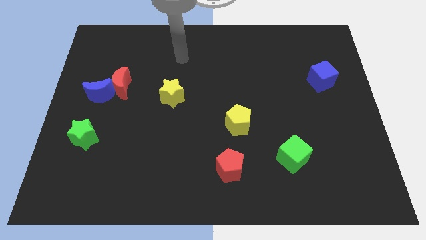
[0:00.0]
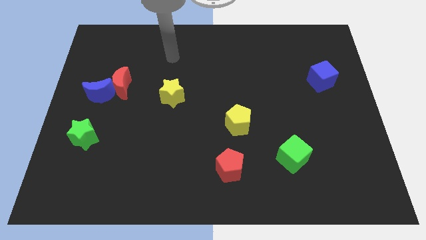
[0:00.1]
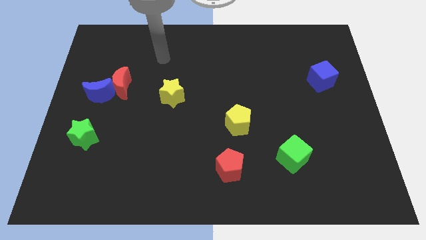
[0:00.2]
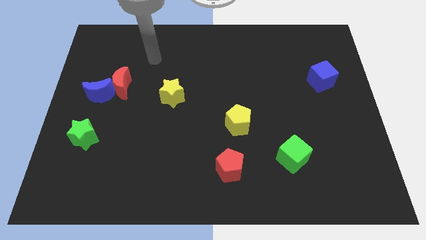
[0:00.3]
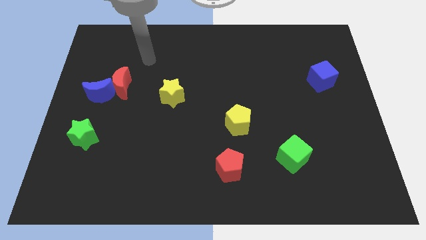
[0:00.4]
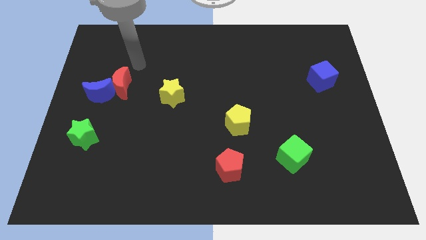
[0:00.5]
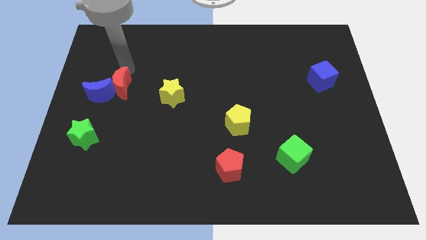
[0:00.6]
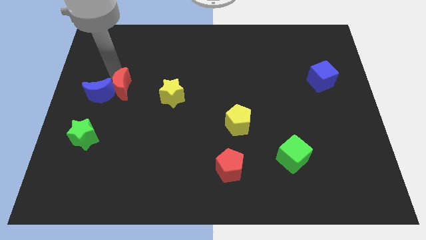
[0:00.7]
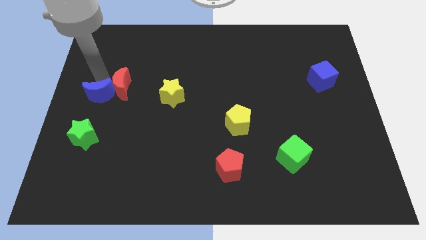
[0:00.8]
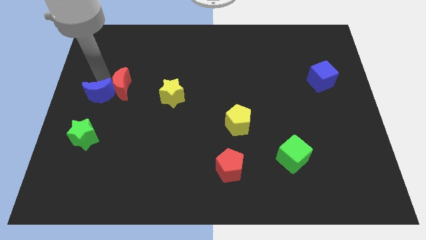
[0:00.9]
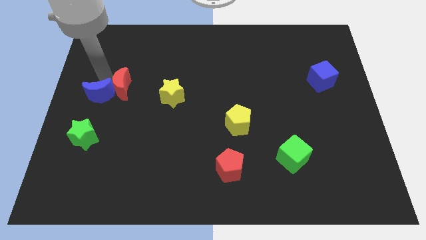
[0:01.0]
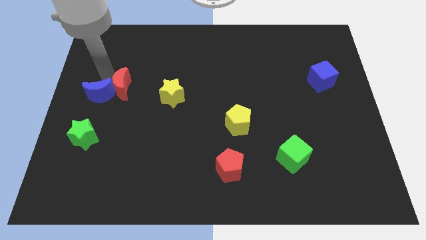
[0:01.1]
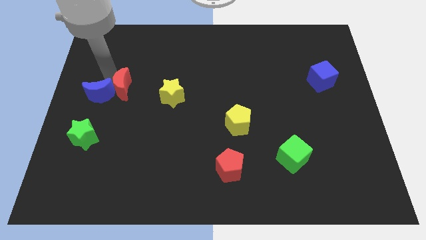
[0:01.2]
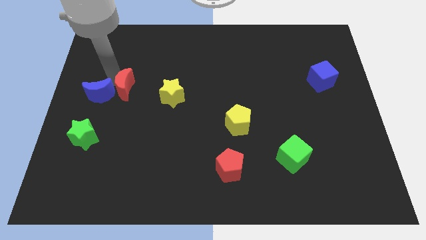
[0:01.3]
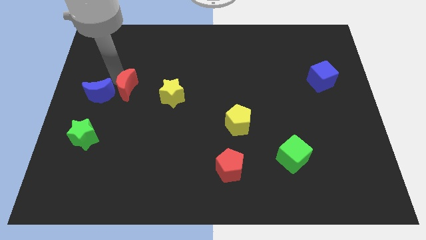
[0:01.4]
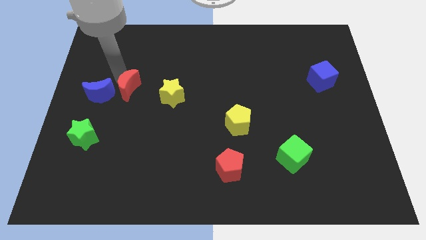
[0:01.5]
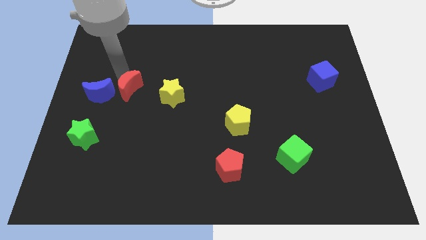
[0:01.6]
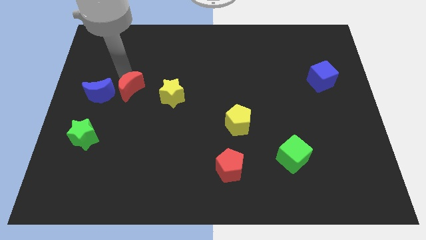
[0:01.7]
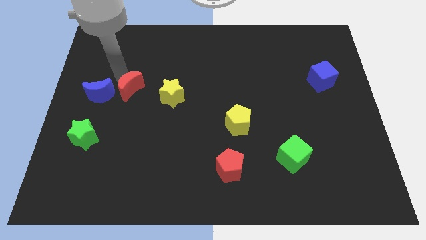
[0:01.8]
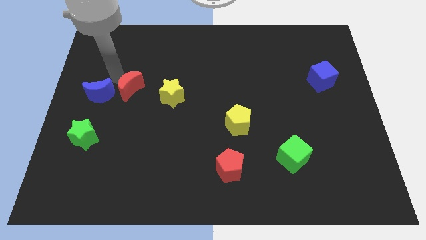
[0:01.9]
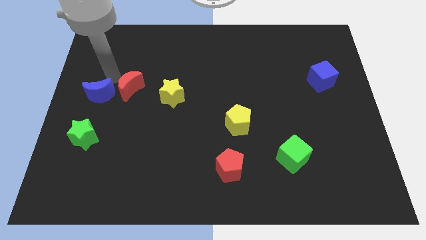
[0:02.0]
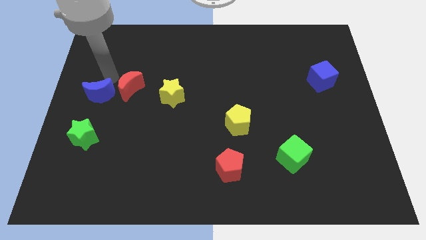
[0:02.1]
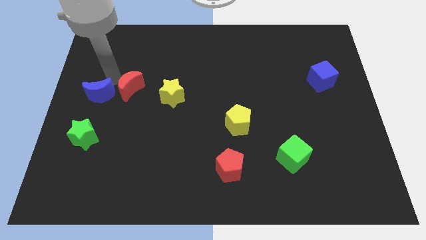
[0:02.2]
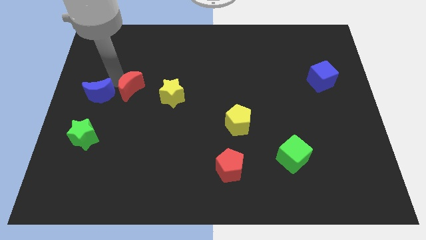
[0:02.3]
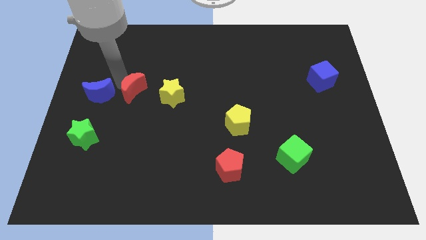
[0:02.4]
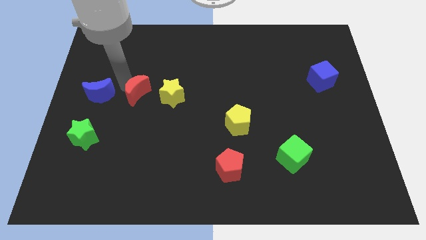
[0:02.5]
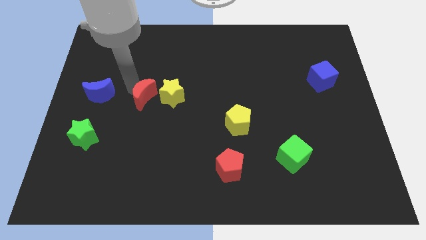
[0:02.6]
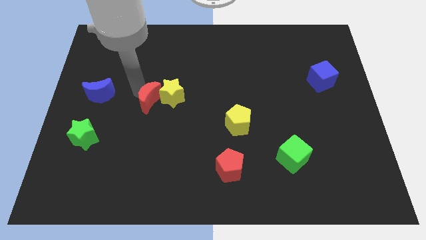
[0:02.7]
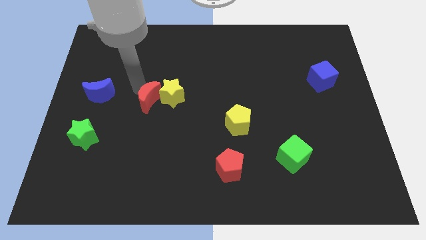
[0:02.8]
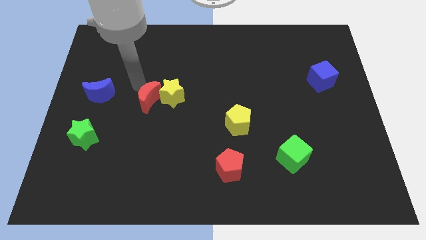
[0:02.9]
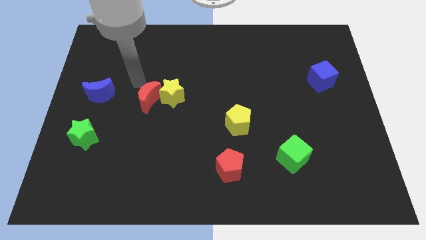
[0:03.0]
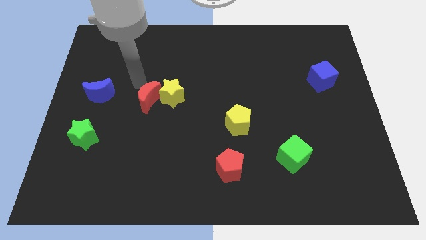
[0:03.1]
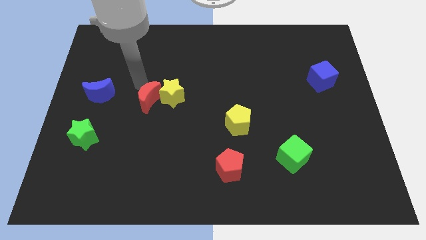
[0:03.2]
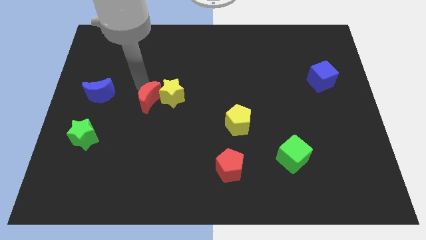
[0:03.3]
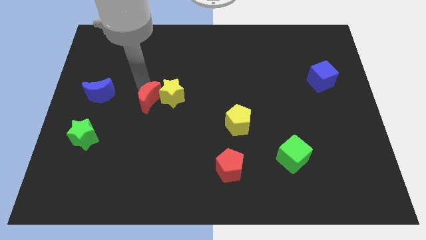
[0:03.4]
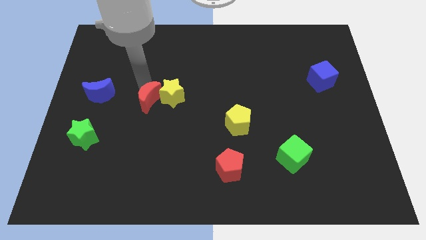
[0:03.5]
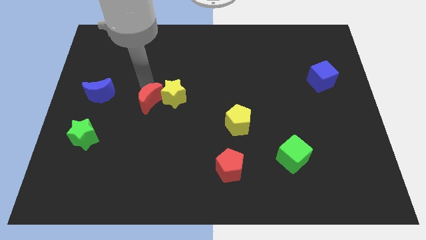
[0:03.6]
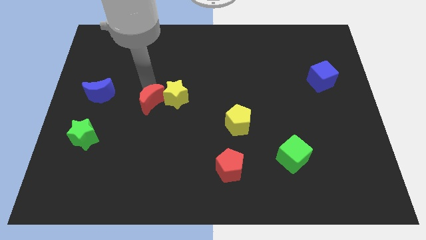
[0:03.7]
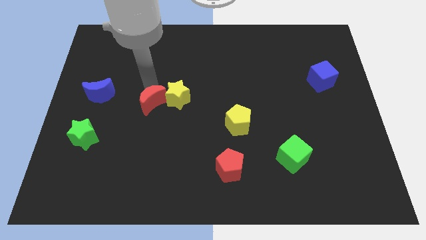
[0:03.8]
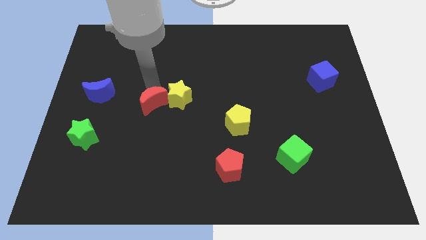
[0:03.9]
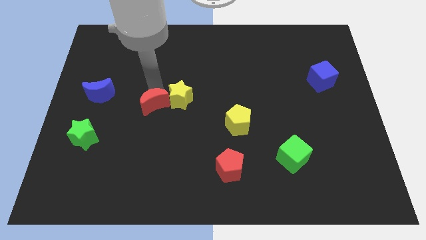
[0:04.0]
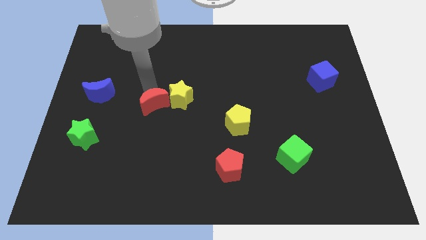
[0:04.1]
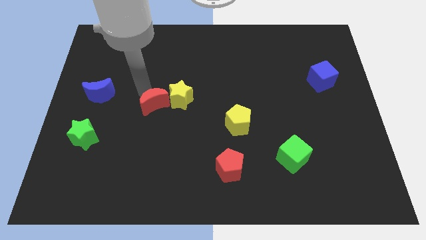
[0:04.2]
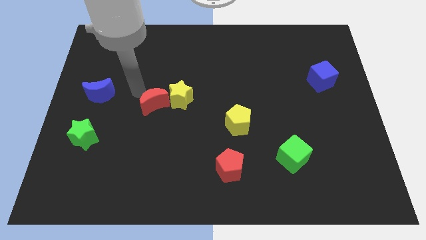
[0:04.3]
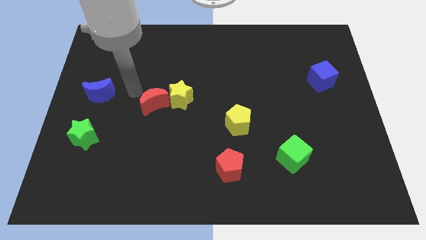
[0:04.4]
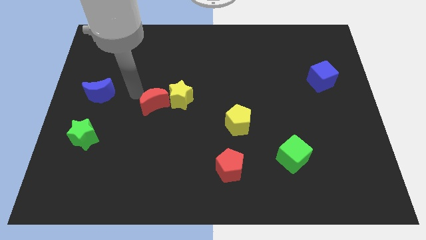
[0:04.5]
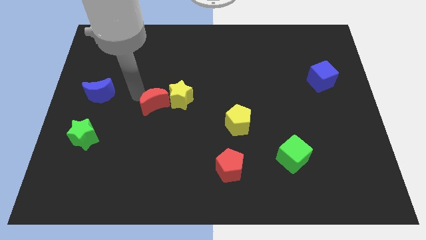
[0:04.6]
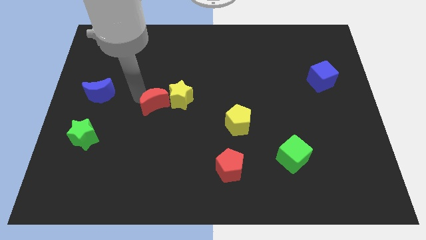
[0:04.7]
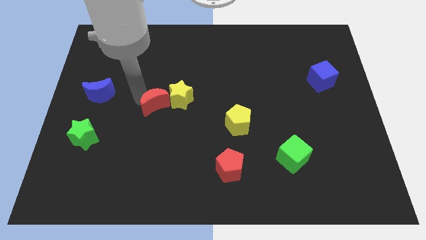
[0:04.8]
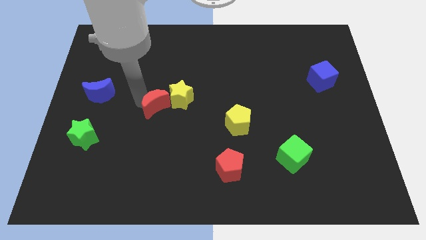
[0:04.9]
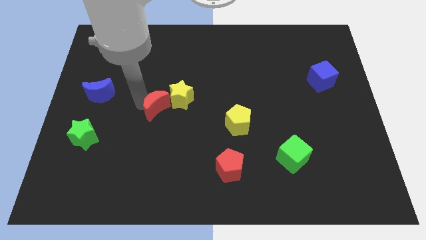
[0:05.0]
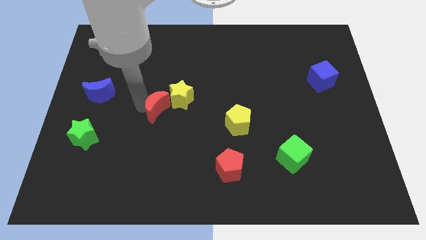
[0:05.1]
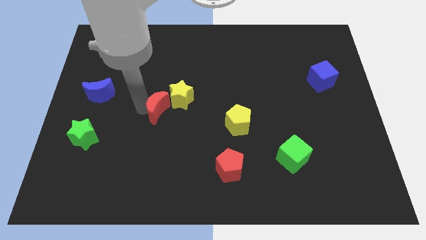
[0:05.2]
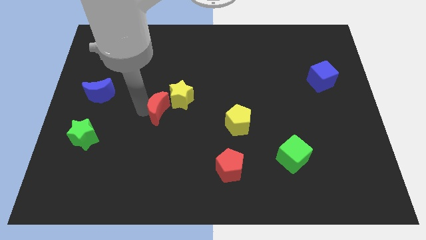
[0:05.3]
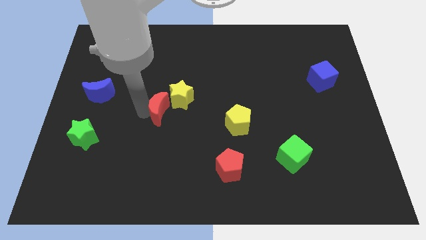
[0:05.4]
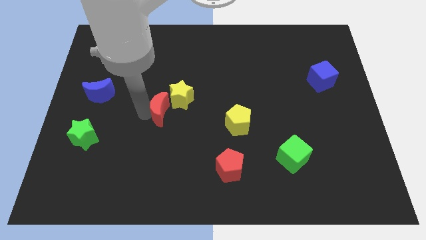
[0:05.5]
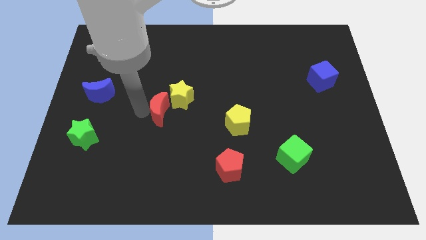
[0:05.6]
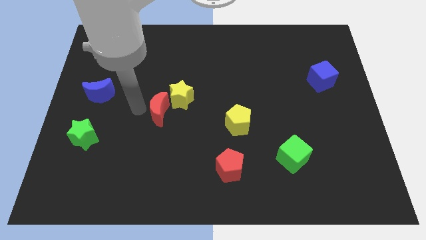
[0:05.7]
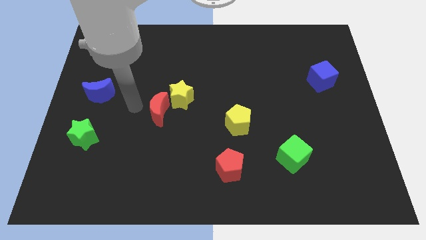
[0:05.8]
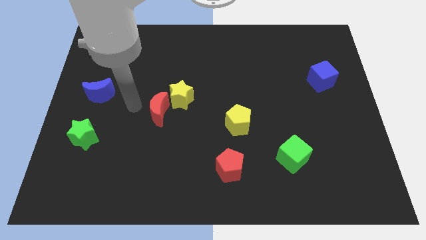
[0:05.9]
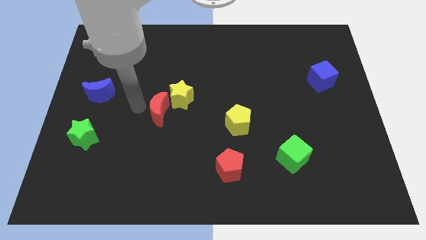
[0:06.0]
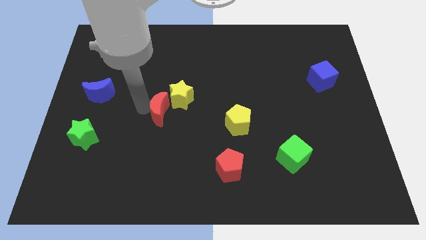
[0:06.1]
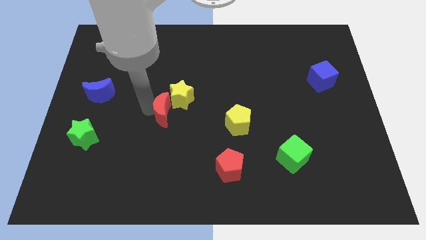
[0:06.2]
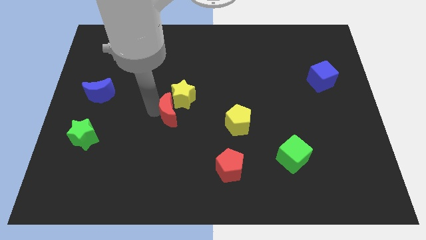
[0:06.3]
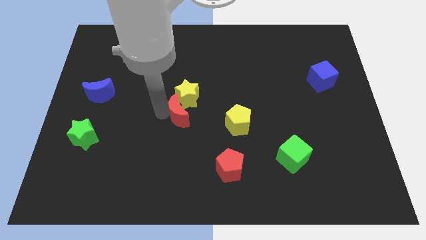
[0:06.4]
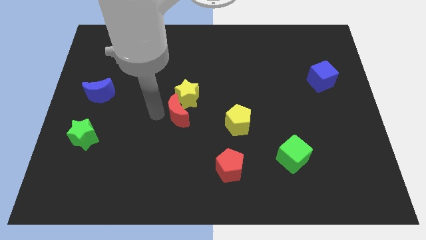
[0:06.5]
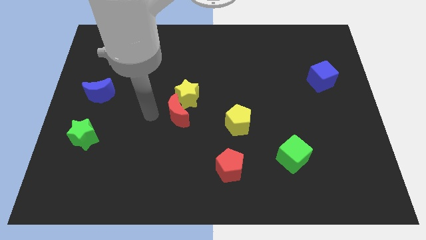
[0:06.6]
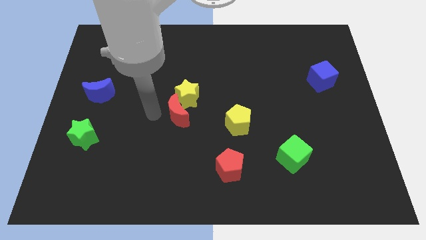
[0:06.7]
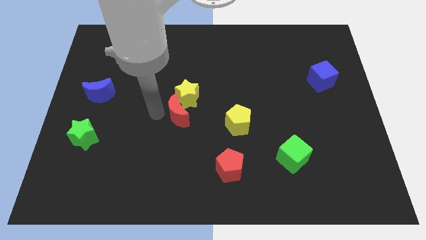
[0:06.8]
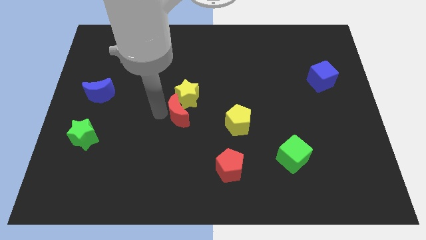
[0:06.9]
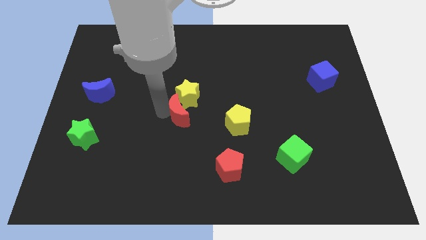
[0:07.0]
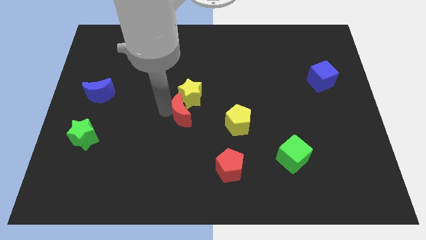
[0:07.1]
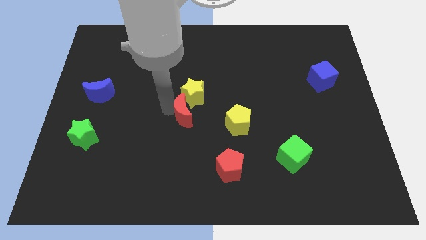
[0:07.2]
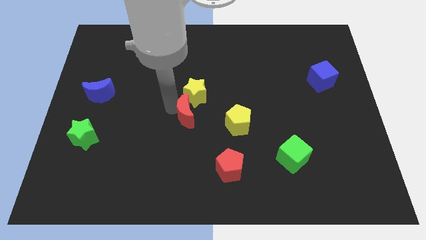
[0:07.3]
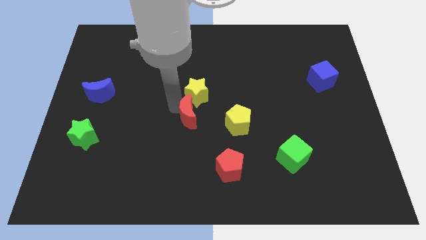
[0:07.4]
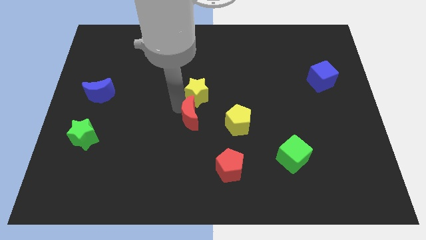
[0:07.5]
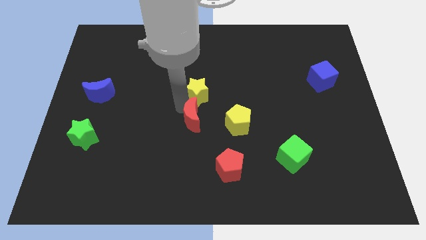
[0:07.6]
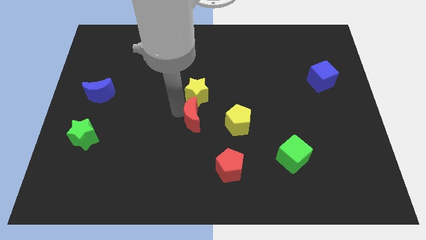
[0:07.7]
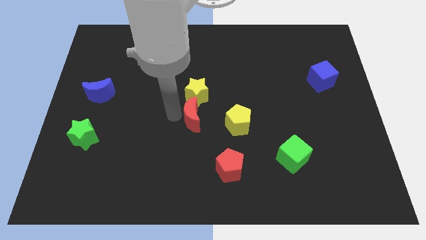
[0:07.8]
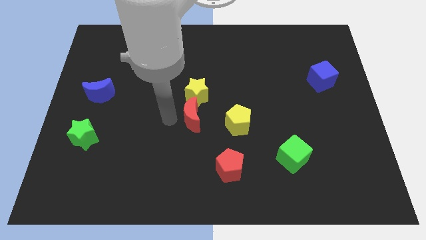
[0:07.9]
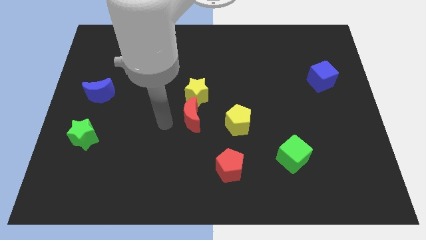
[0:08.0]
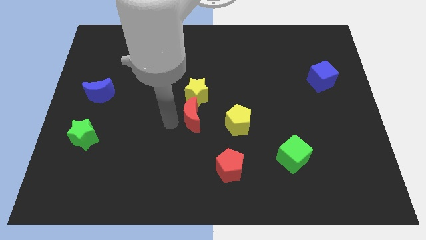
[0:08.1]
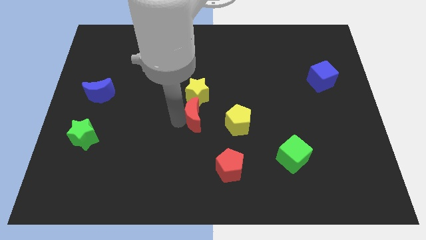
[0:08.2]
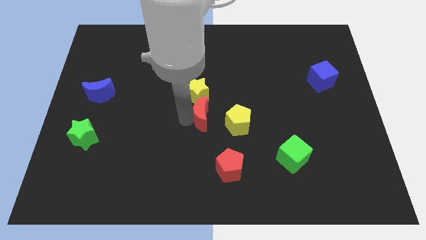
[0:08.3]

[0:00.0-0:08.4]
push the red moon to the bottom right of the yellow star
